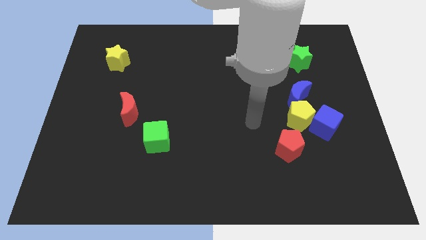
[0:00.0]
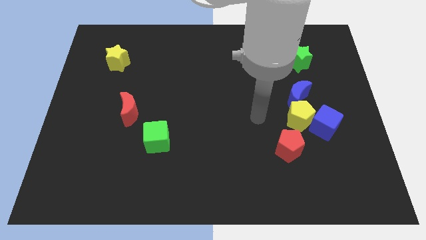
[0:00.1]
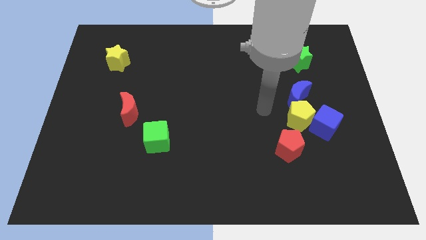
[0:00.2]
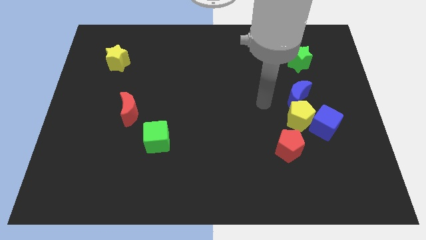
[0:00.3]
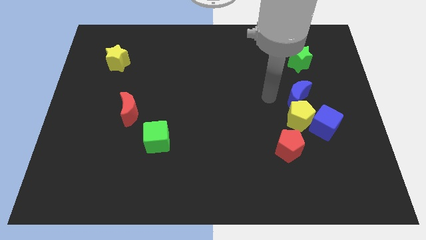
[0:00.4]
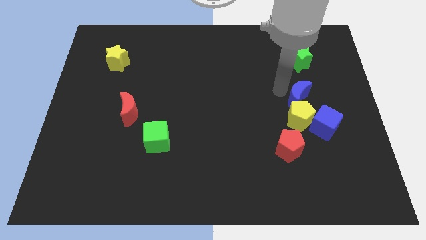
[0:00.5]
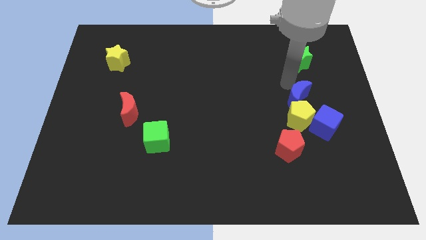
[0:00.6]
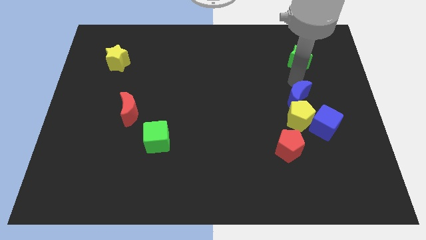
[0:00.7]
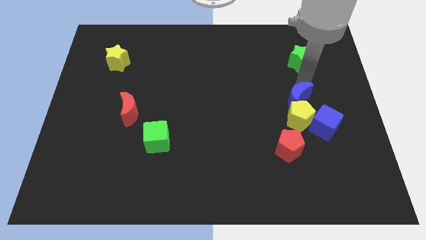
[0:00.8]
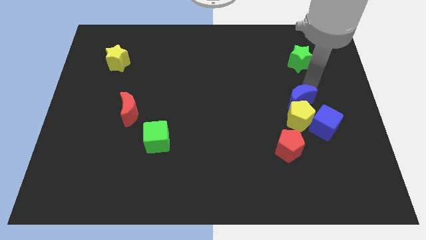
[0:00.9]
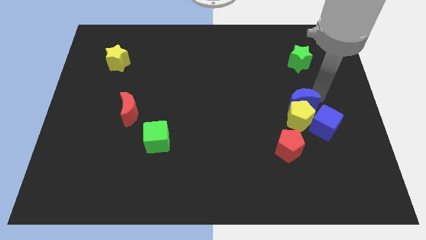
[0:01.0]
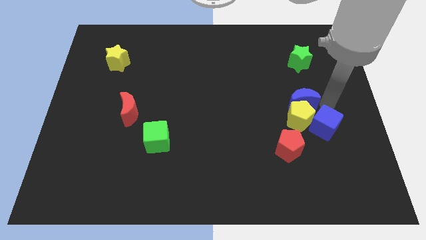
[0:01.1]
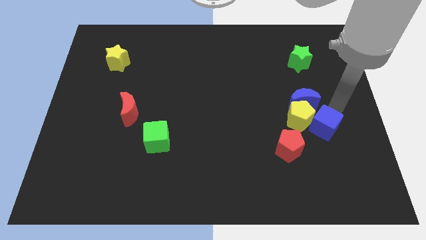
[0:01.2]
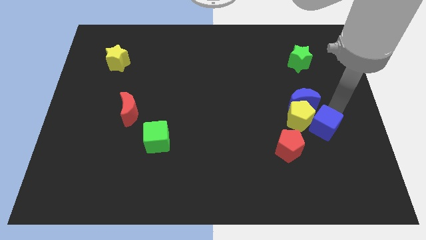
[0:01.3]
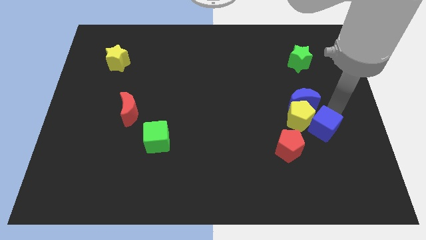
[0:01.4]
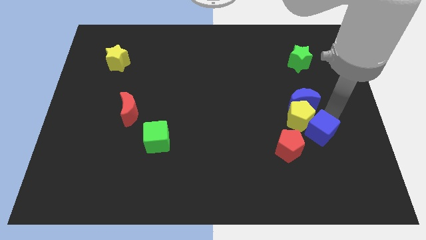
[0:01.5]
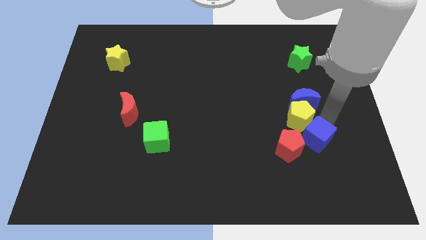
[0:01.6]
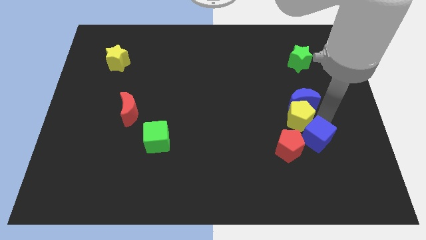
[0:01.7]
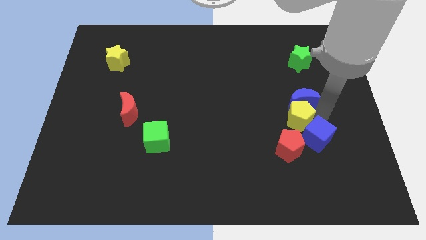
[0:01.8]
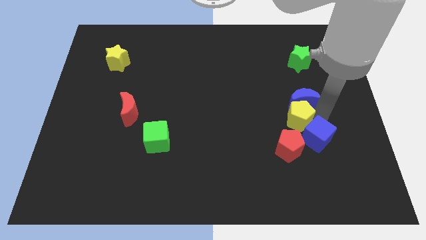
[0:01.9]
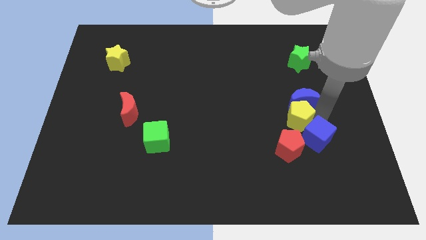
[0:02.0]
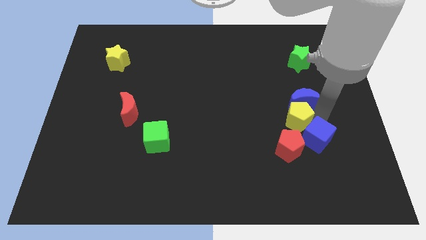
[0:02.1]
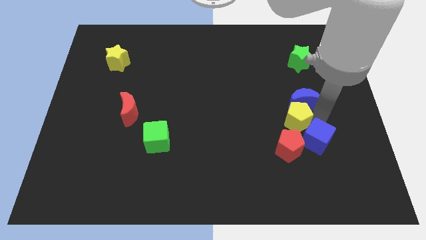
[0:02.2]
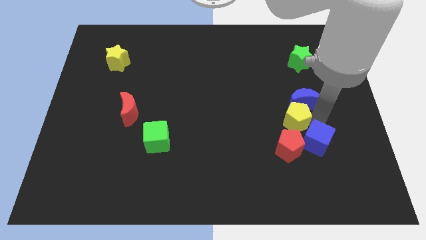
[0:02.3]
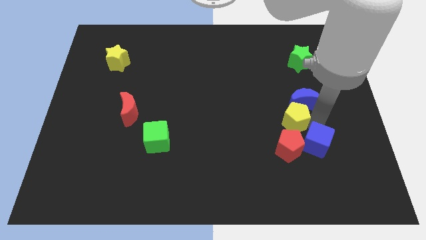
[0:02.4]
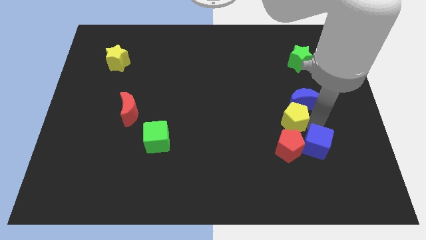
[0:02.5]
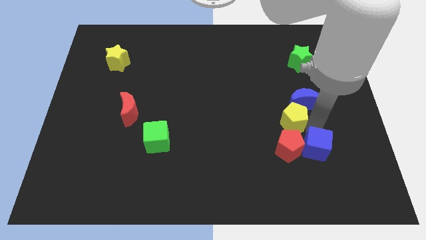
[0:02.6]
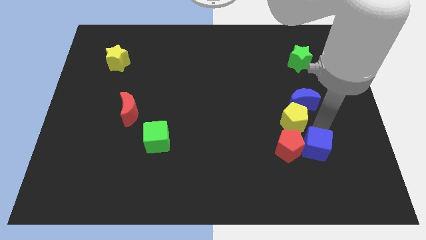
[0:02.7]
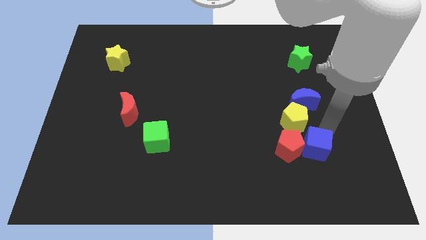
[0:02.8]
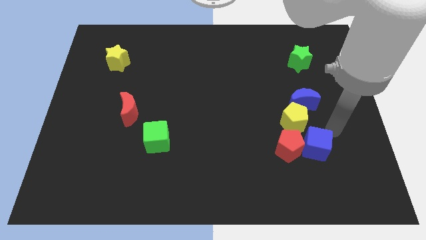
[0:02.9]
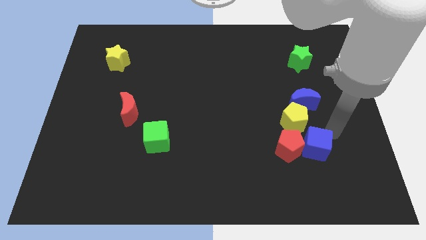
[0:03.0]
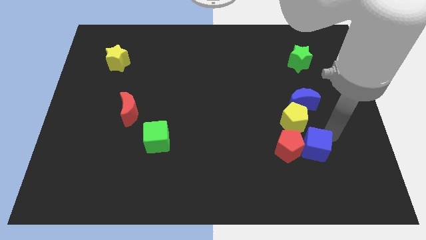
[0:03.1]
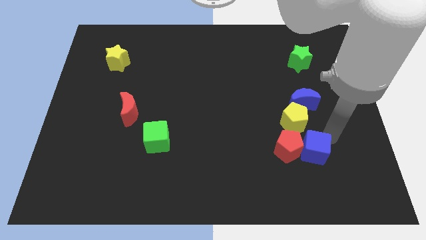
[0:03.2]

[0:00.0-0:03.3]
push the blue cube down and then to the left somewhat

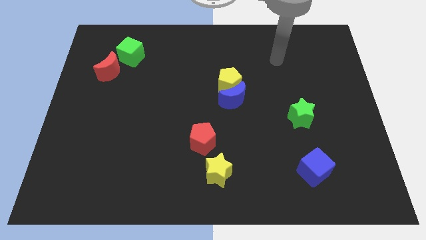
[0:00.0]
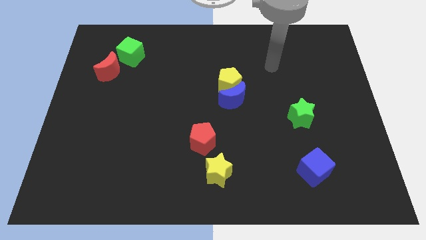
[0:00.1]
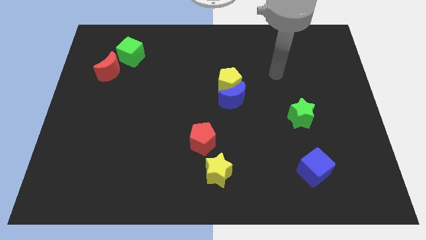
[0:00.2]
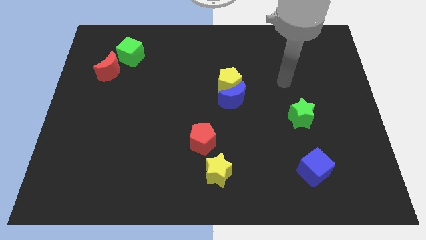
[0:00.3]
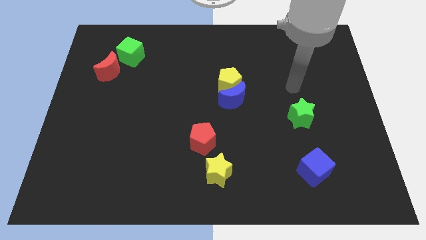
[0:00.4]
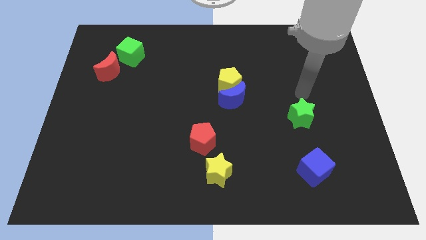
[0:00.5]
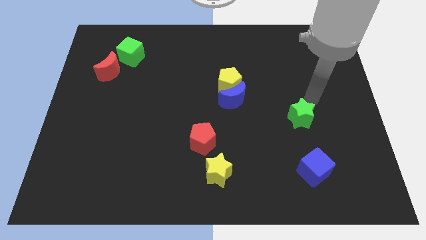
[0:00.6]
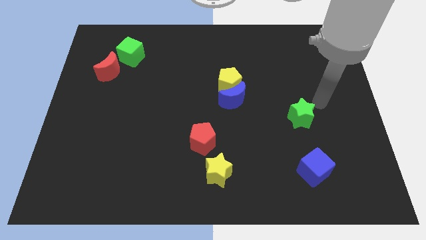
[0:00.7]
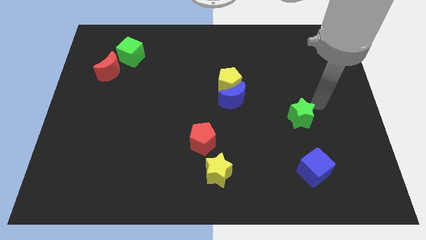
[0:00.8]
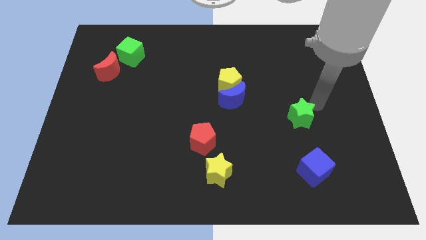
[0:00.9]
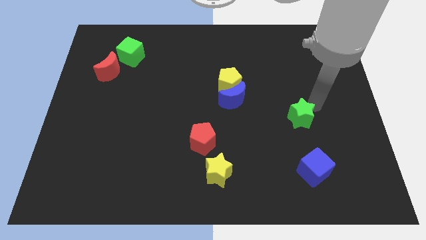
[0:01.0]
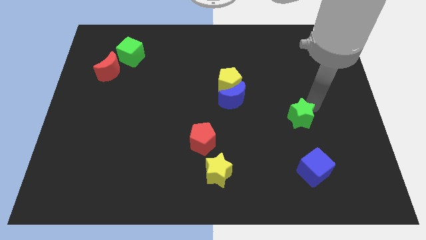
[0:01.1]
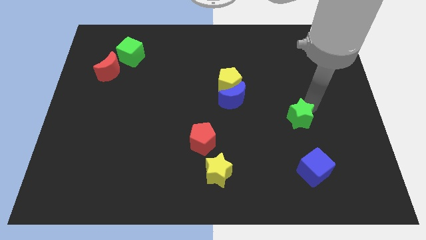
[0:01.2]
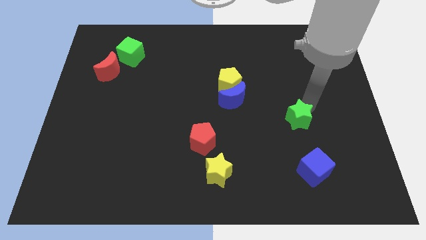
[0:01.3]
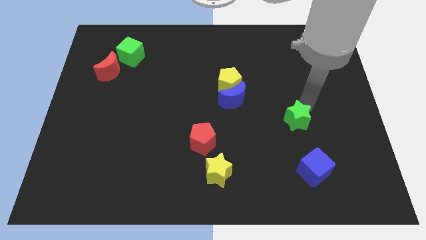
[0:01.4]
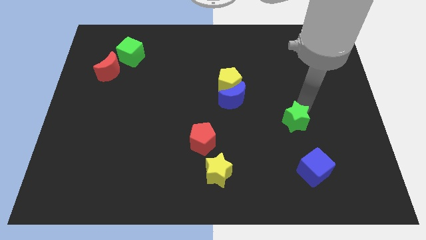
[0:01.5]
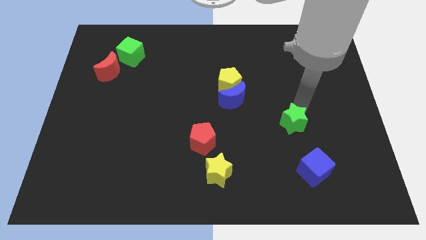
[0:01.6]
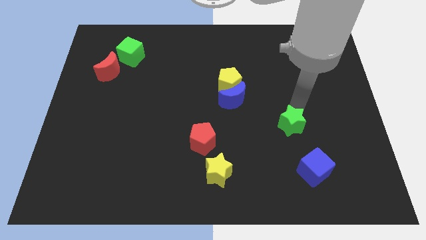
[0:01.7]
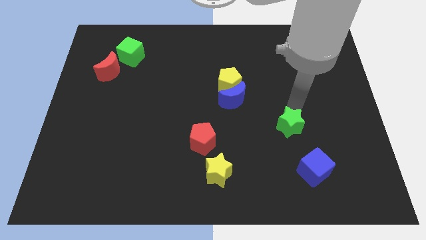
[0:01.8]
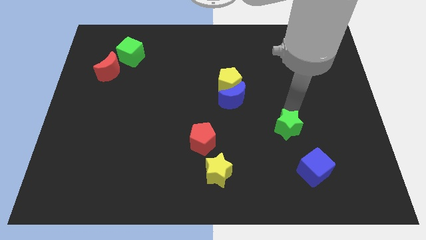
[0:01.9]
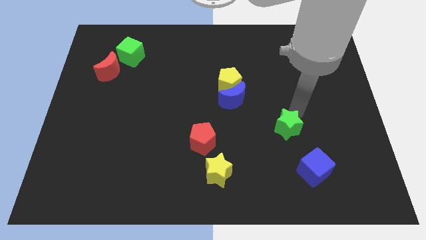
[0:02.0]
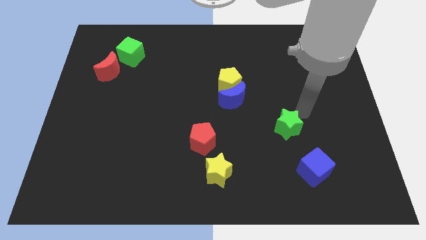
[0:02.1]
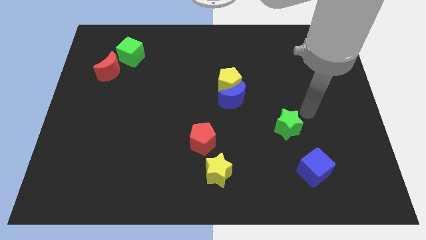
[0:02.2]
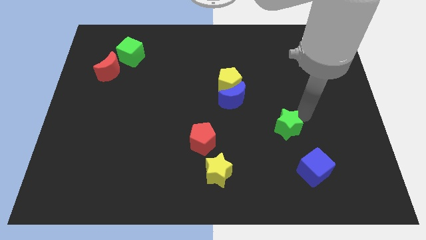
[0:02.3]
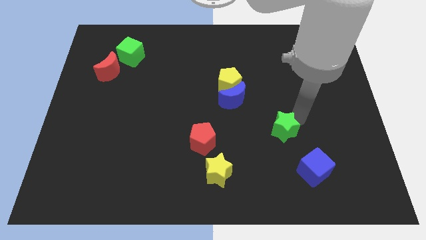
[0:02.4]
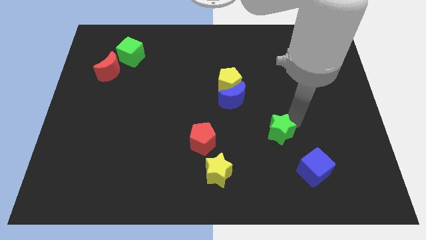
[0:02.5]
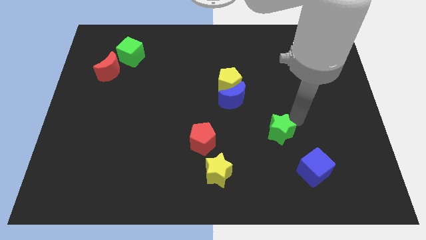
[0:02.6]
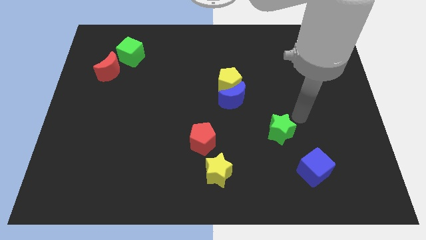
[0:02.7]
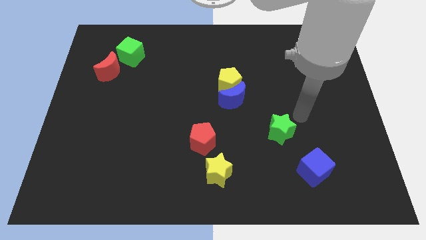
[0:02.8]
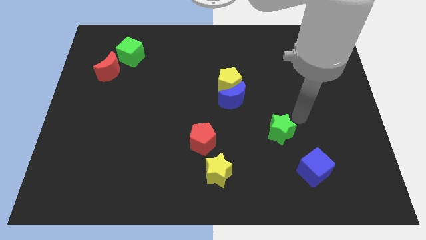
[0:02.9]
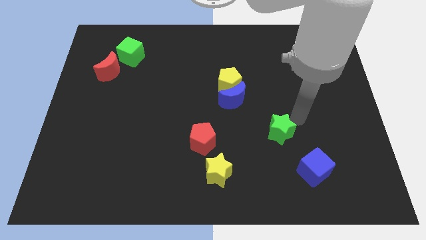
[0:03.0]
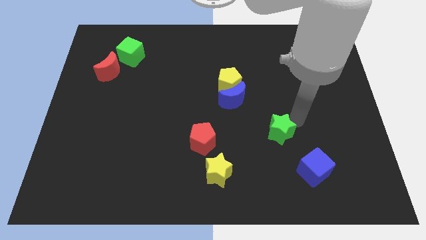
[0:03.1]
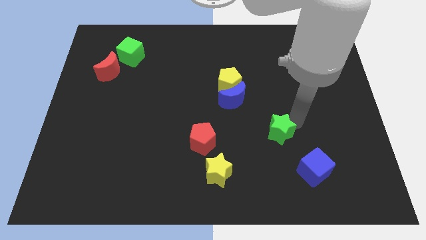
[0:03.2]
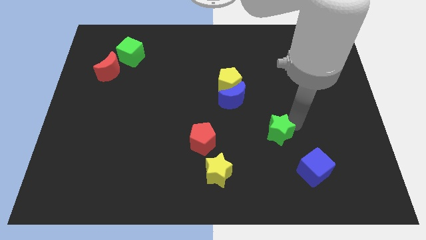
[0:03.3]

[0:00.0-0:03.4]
move the green star somewhat down and left

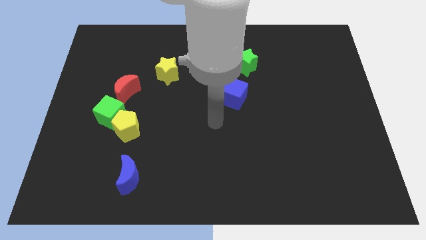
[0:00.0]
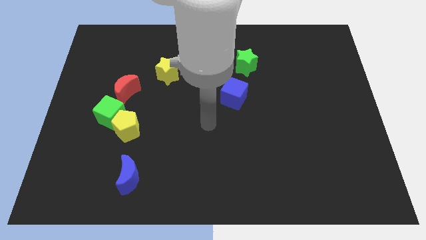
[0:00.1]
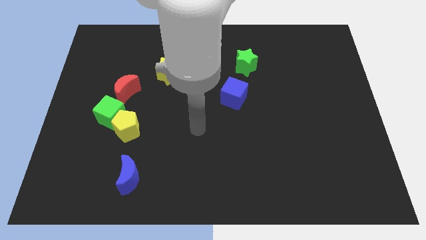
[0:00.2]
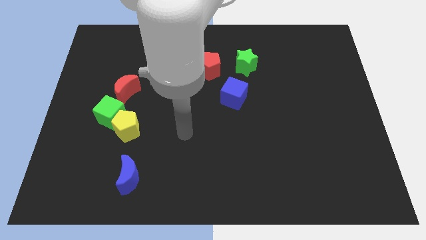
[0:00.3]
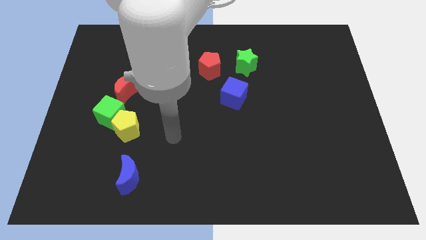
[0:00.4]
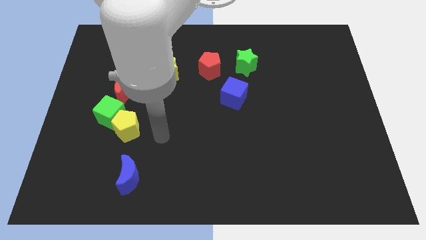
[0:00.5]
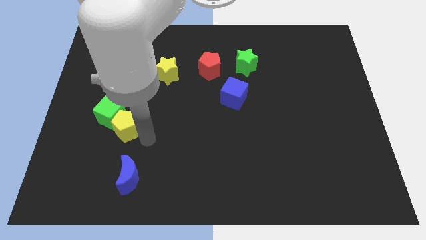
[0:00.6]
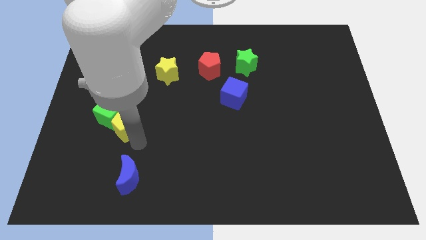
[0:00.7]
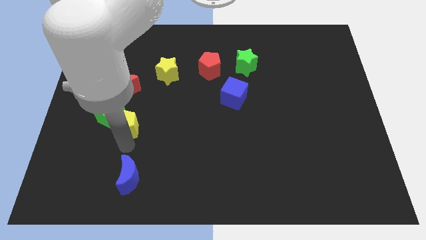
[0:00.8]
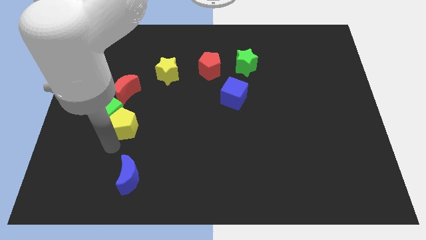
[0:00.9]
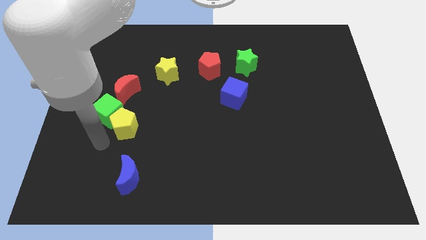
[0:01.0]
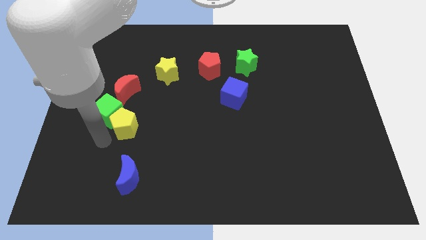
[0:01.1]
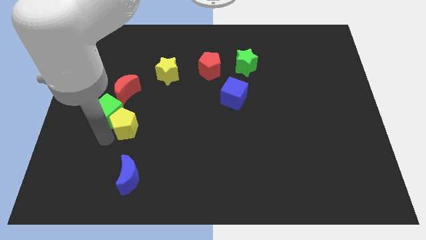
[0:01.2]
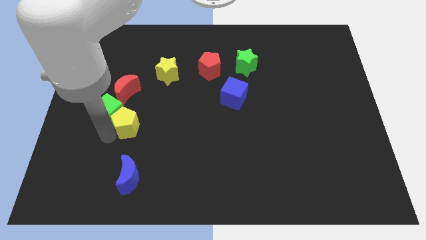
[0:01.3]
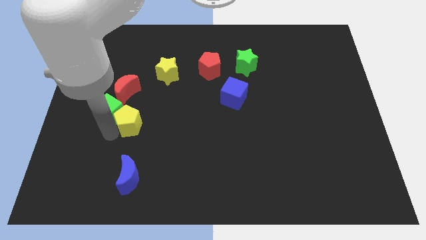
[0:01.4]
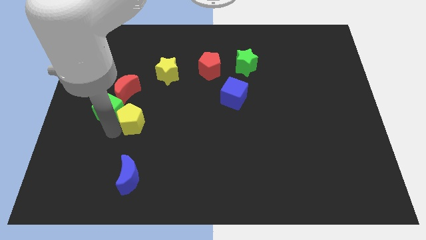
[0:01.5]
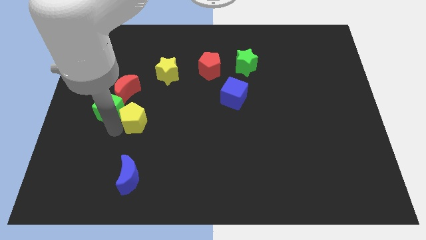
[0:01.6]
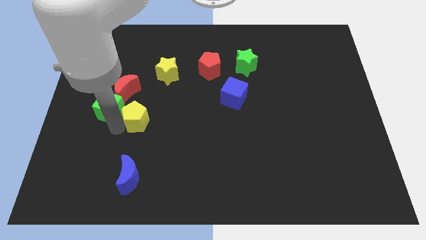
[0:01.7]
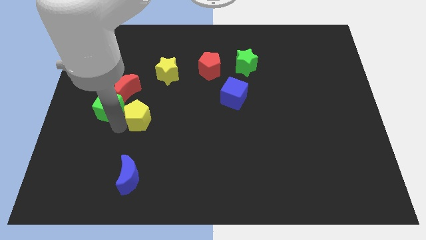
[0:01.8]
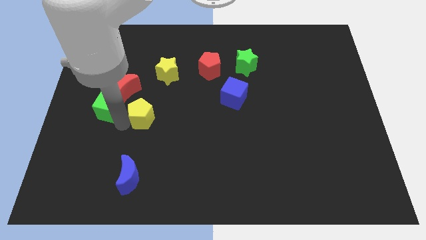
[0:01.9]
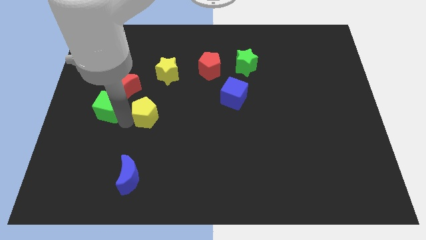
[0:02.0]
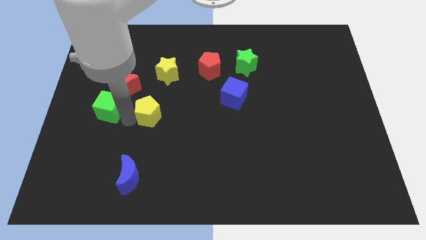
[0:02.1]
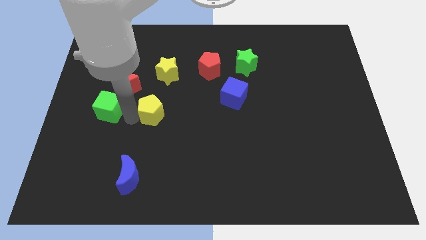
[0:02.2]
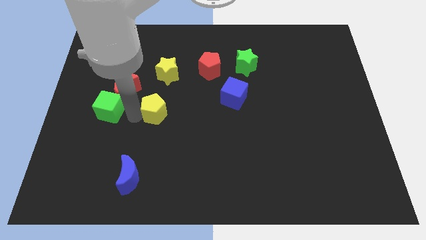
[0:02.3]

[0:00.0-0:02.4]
slightly push the yellow pentagon up and then right
